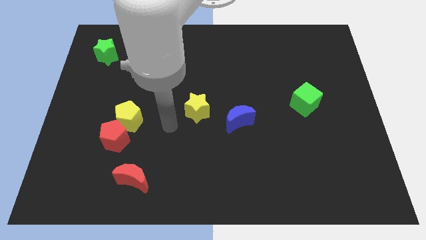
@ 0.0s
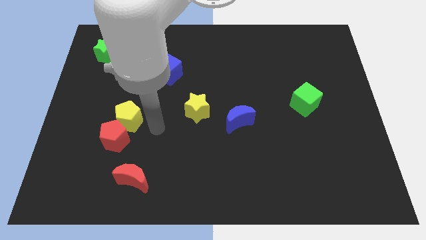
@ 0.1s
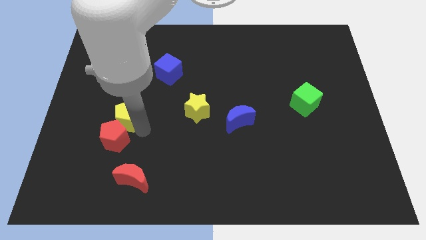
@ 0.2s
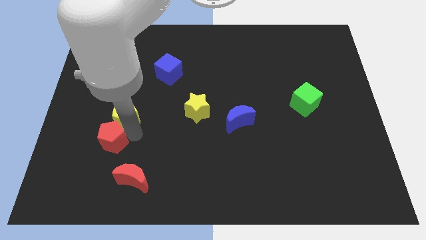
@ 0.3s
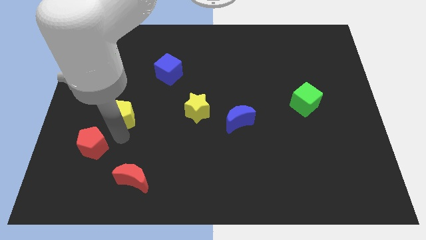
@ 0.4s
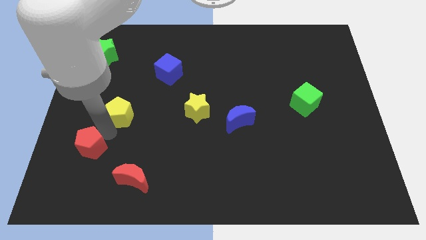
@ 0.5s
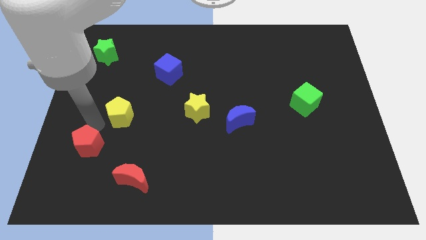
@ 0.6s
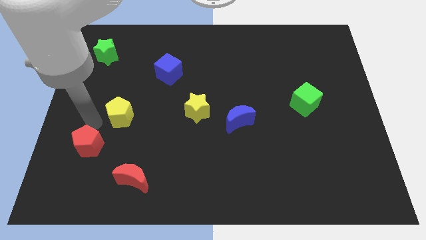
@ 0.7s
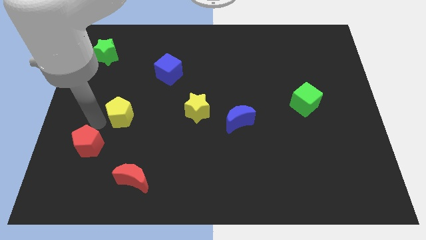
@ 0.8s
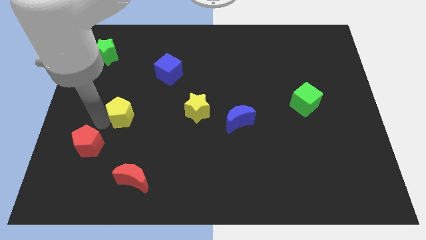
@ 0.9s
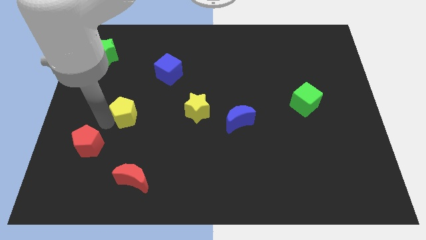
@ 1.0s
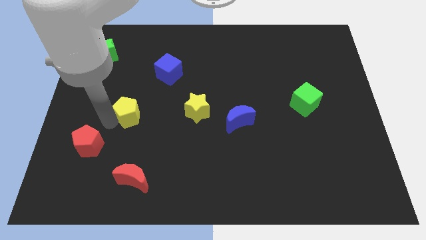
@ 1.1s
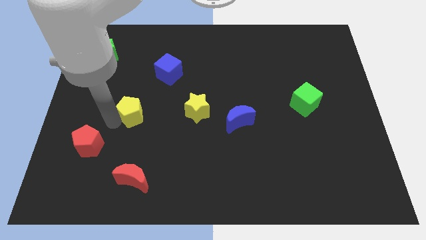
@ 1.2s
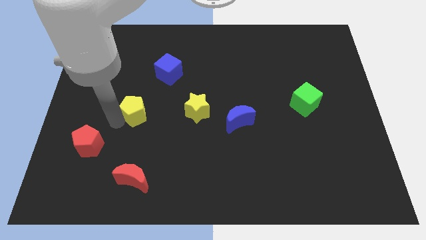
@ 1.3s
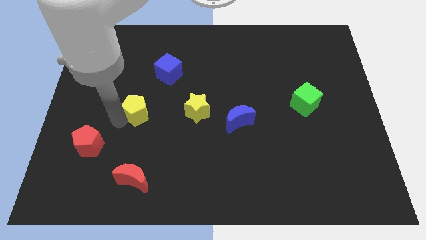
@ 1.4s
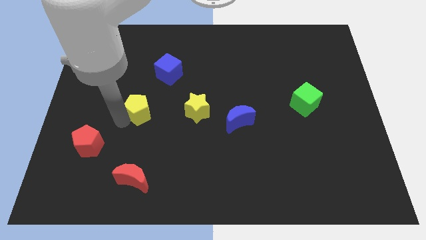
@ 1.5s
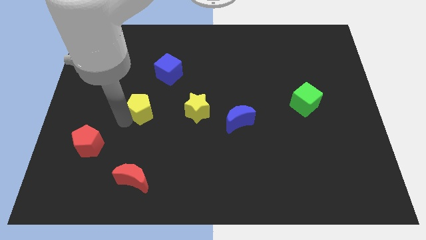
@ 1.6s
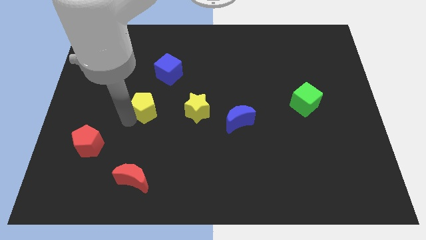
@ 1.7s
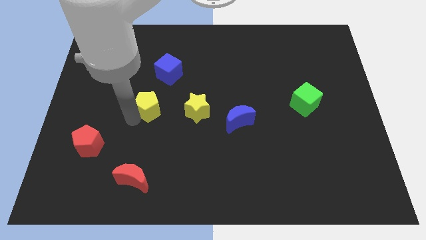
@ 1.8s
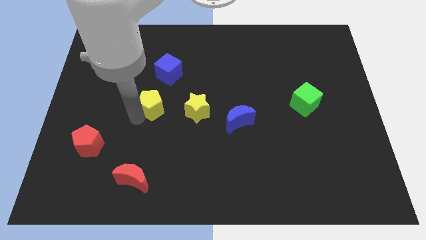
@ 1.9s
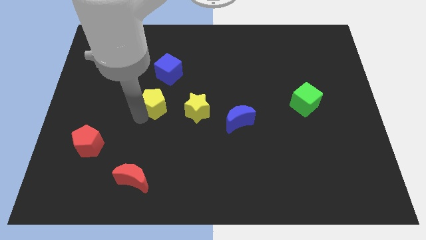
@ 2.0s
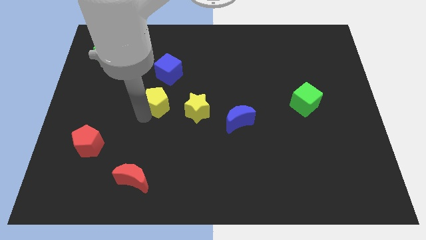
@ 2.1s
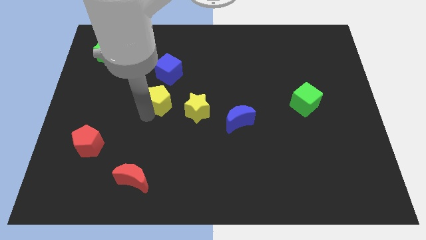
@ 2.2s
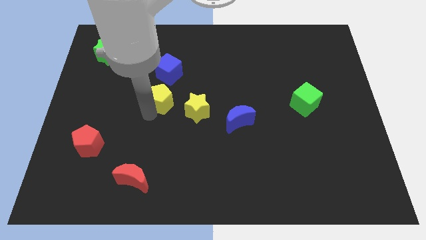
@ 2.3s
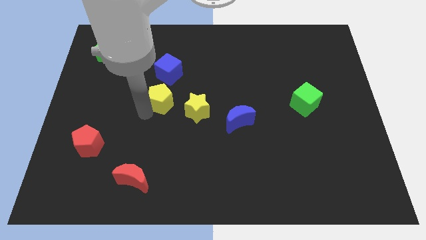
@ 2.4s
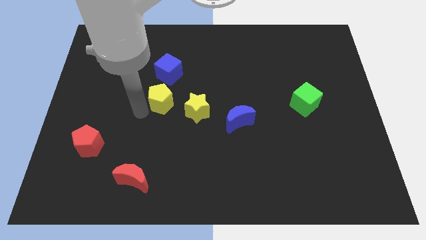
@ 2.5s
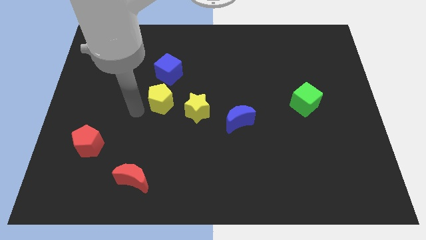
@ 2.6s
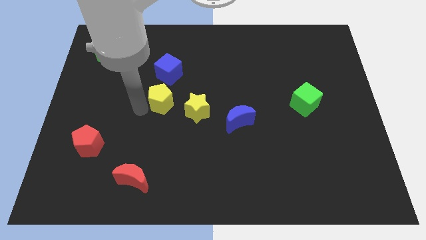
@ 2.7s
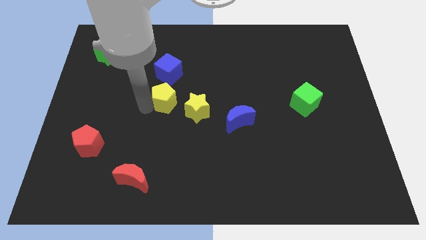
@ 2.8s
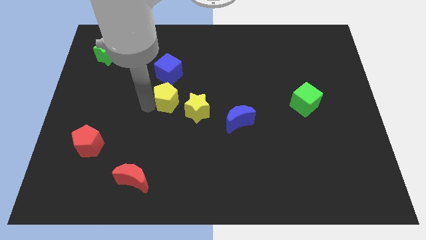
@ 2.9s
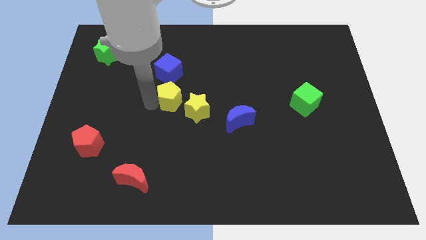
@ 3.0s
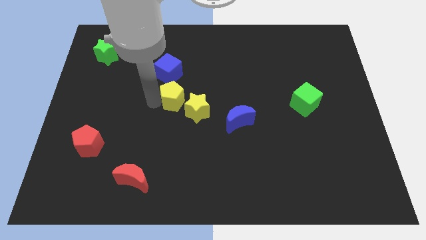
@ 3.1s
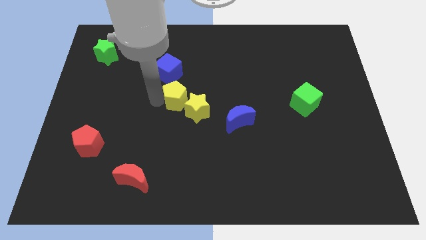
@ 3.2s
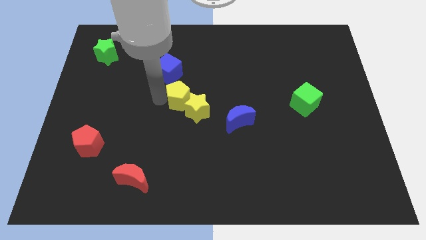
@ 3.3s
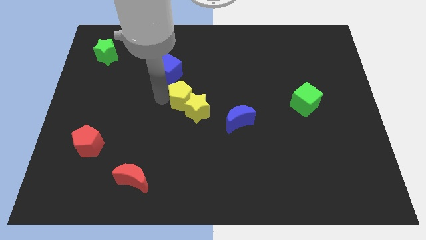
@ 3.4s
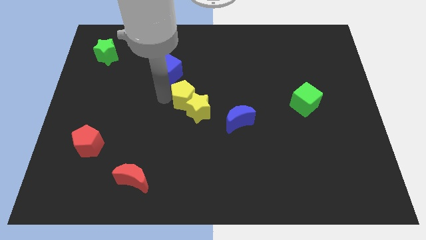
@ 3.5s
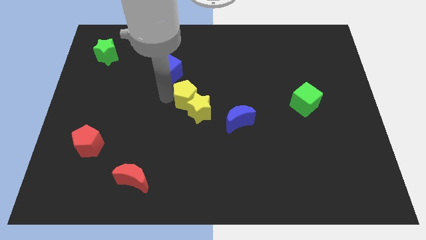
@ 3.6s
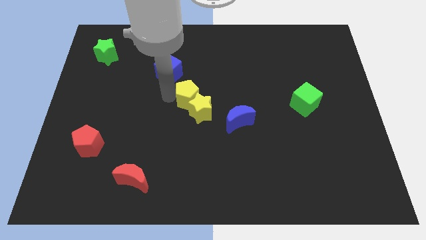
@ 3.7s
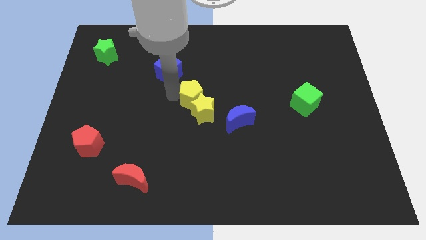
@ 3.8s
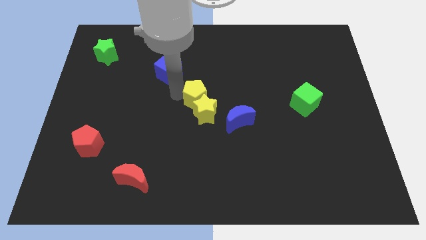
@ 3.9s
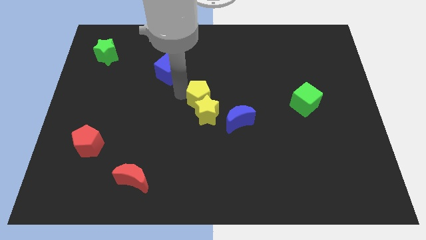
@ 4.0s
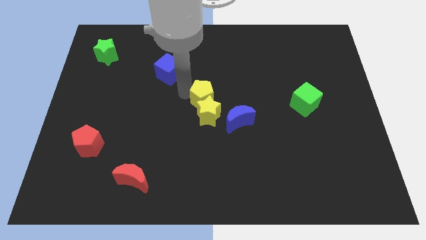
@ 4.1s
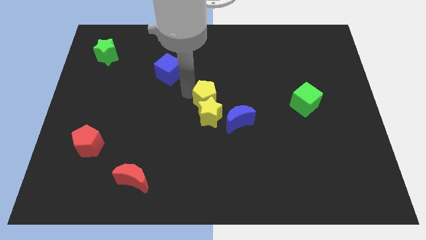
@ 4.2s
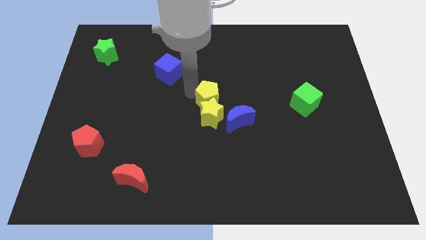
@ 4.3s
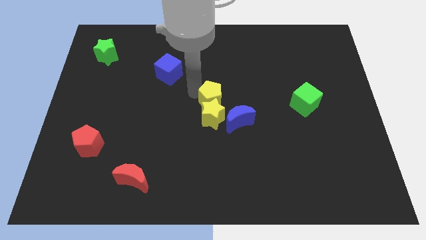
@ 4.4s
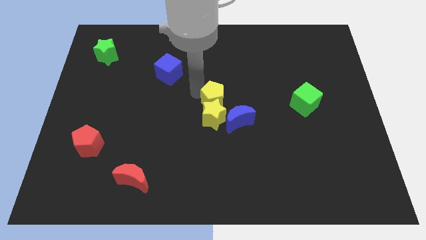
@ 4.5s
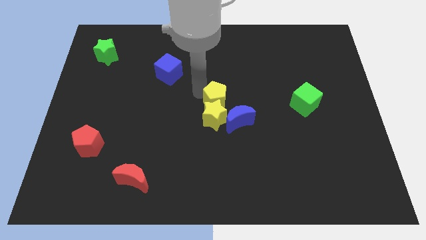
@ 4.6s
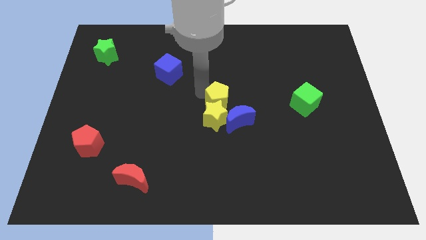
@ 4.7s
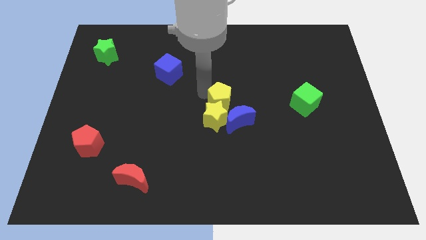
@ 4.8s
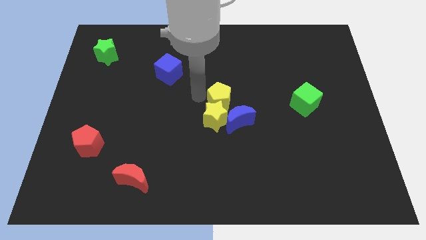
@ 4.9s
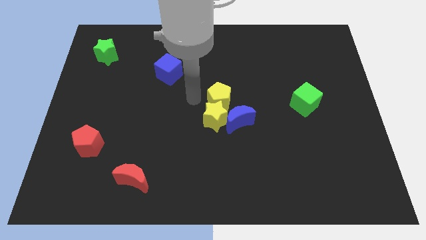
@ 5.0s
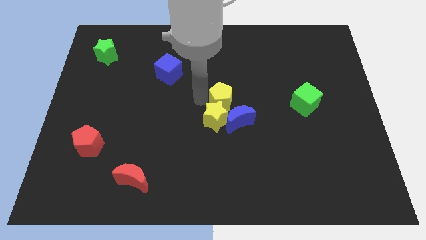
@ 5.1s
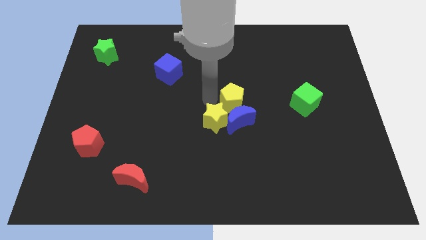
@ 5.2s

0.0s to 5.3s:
put the yellow pentagon diagonally up and to the right of the blue moon

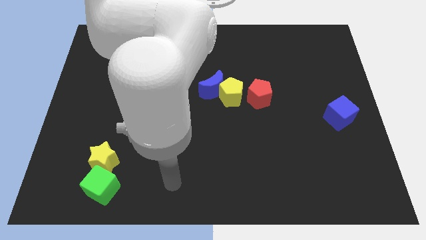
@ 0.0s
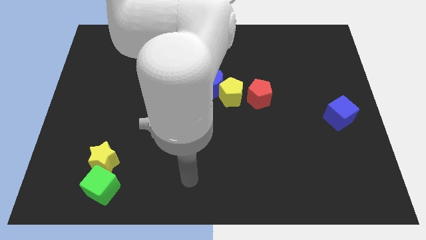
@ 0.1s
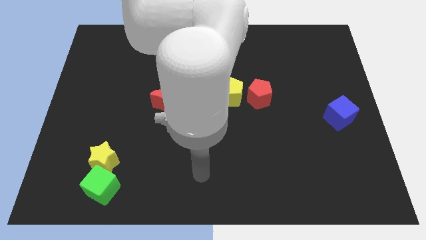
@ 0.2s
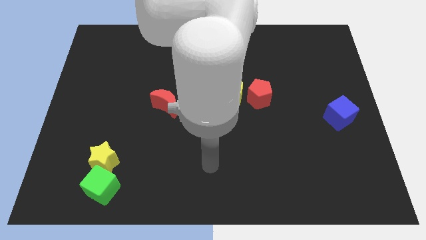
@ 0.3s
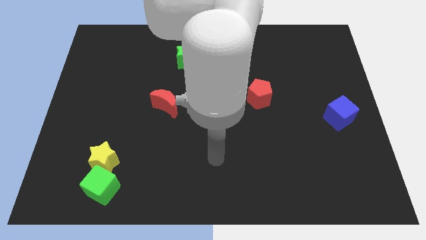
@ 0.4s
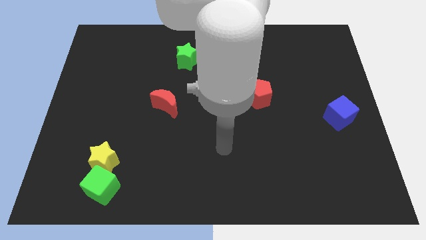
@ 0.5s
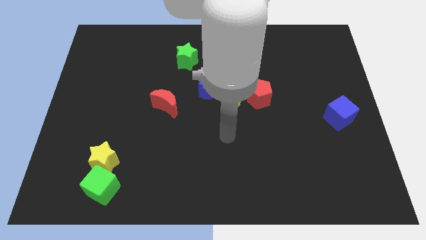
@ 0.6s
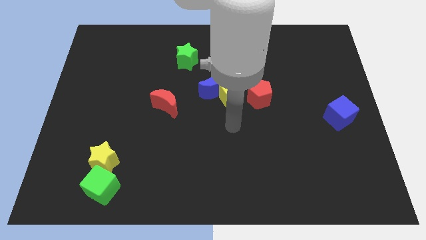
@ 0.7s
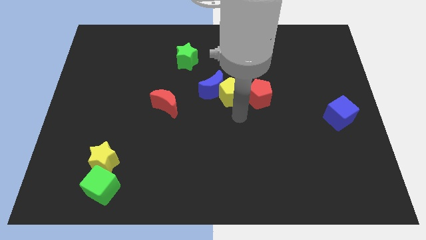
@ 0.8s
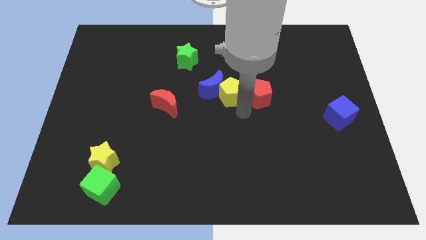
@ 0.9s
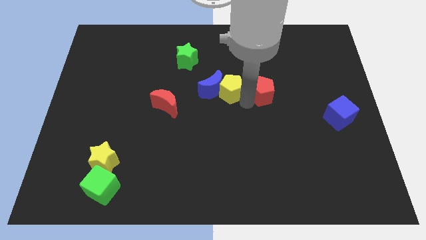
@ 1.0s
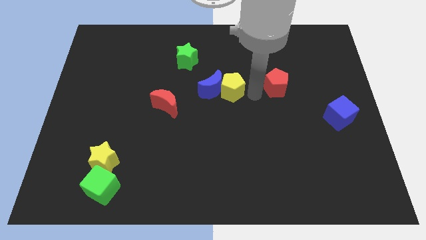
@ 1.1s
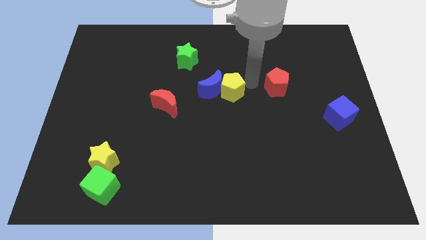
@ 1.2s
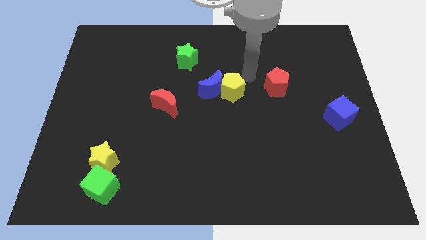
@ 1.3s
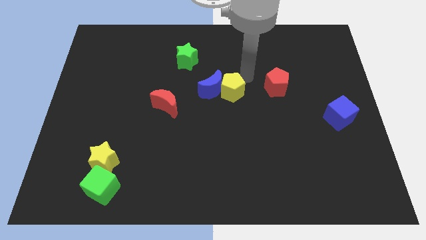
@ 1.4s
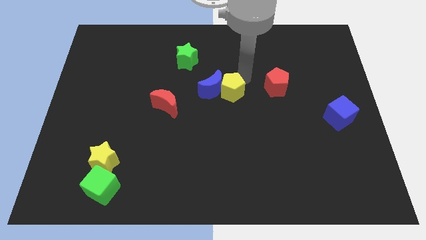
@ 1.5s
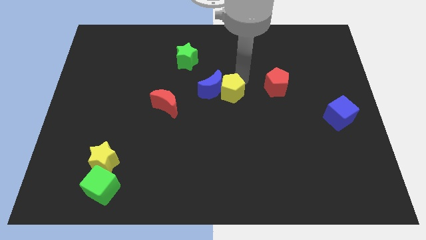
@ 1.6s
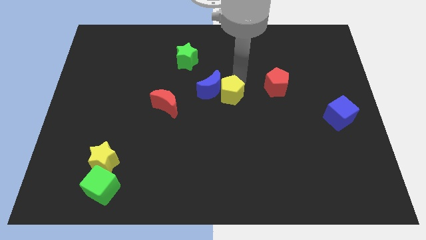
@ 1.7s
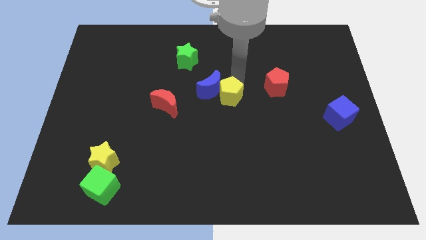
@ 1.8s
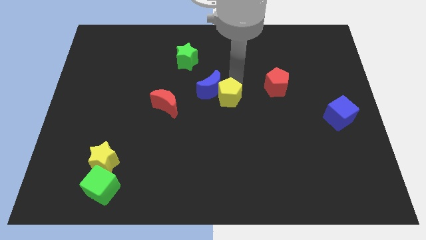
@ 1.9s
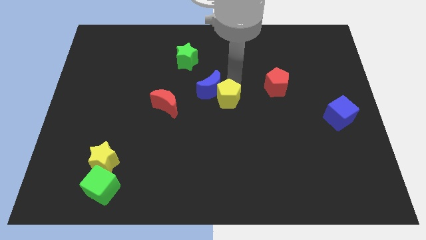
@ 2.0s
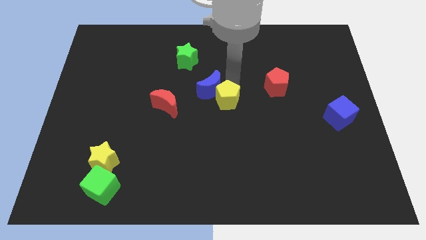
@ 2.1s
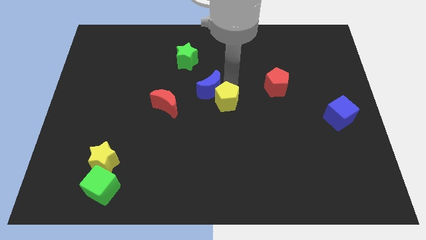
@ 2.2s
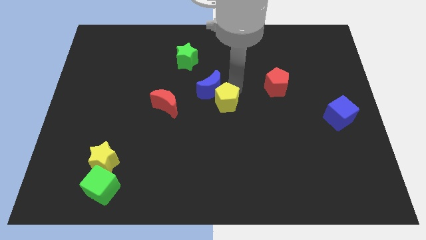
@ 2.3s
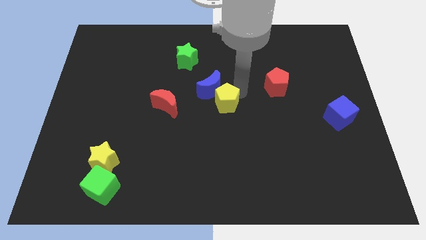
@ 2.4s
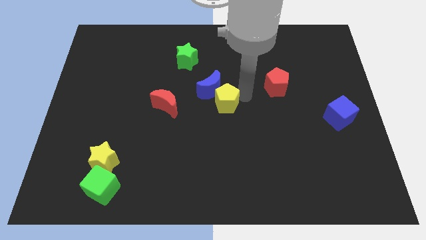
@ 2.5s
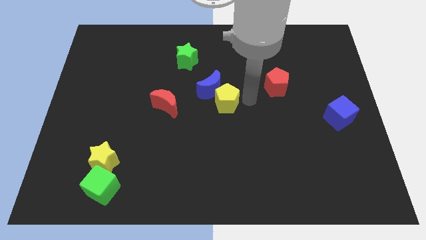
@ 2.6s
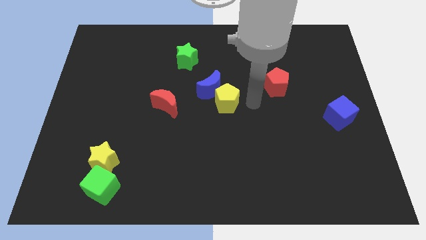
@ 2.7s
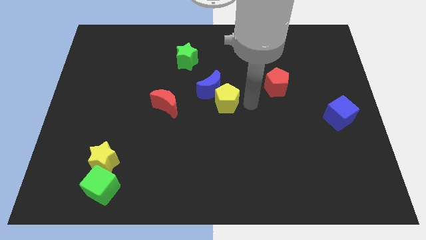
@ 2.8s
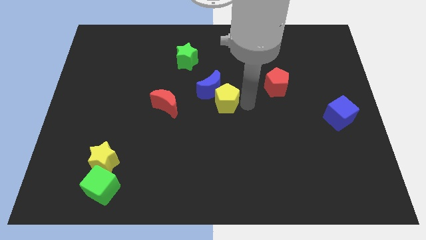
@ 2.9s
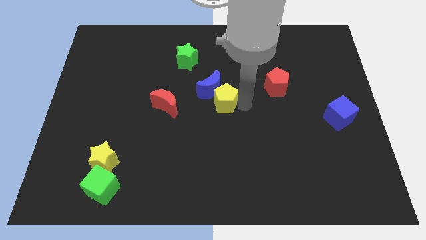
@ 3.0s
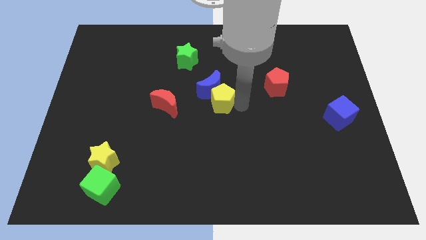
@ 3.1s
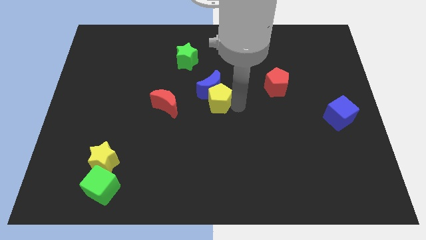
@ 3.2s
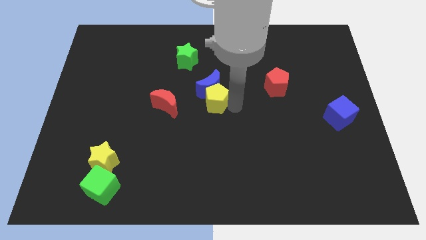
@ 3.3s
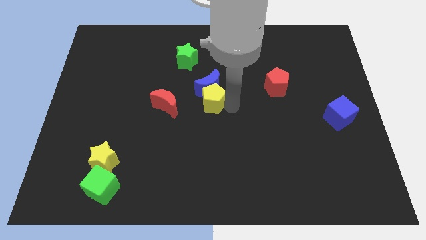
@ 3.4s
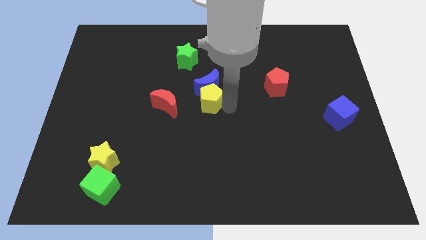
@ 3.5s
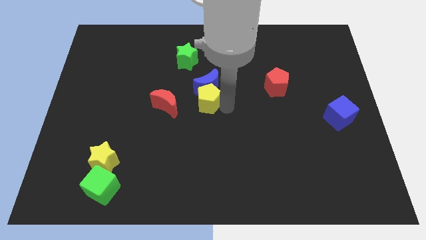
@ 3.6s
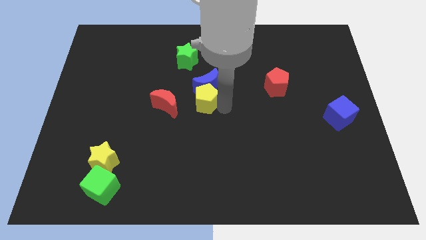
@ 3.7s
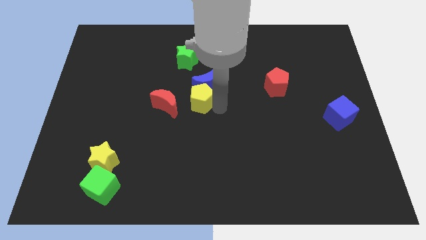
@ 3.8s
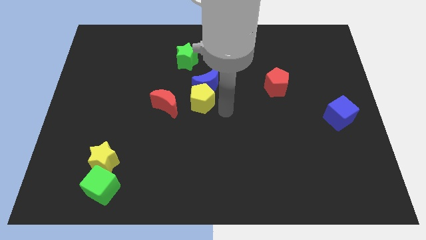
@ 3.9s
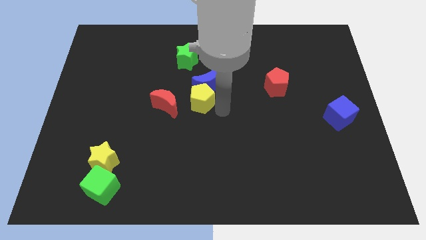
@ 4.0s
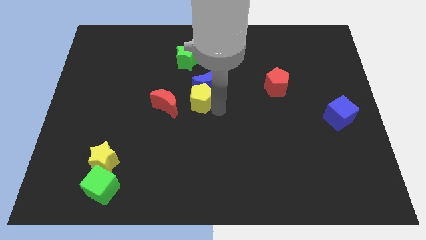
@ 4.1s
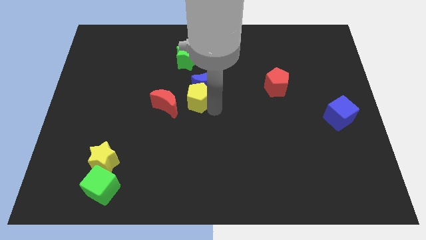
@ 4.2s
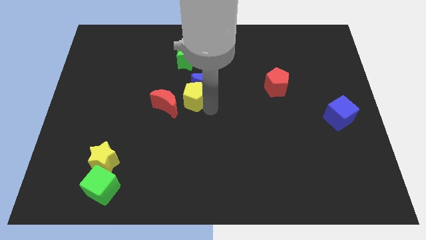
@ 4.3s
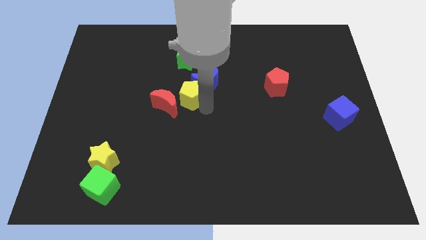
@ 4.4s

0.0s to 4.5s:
move the yellow pentagon just left of the blue moon
